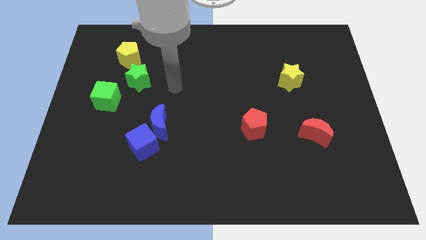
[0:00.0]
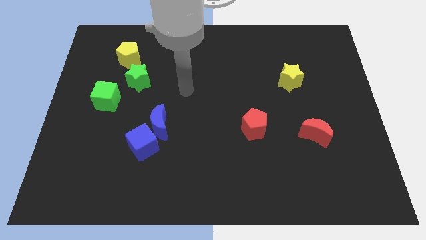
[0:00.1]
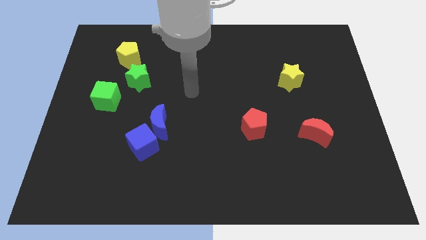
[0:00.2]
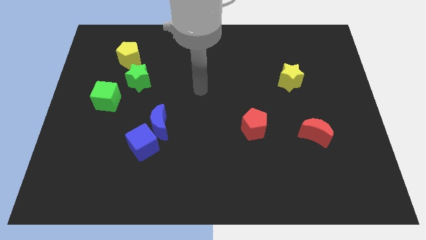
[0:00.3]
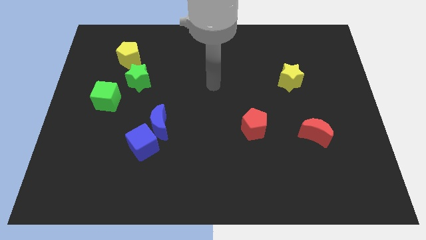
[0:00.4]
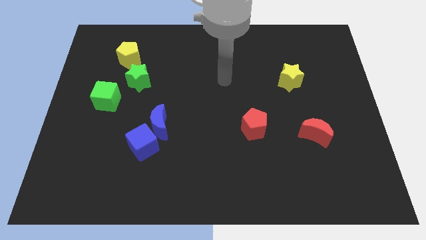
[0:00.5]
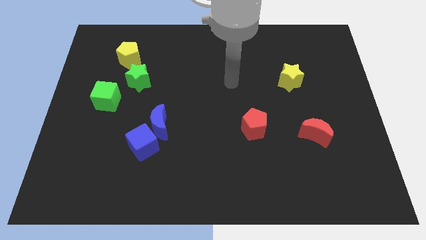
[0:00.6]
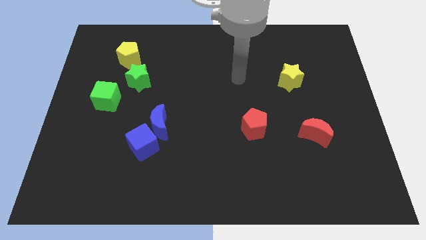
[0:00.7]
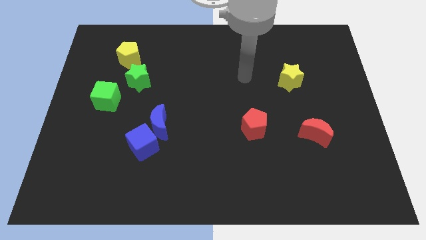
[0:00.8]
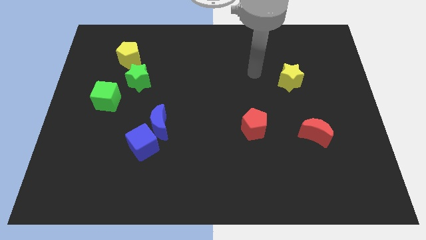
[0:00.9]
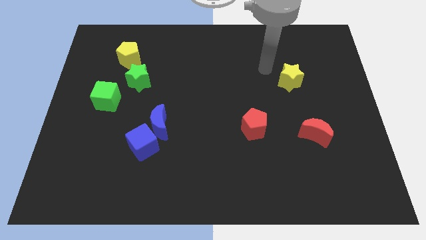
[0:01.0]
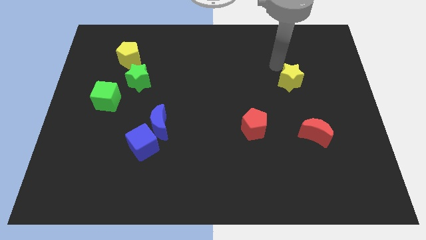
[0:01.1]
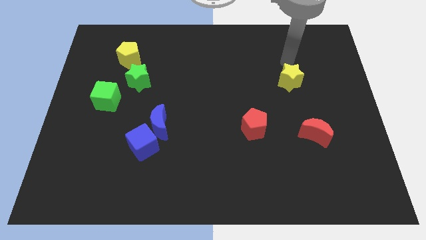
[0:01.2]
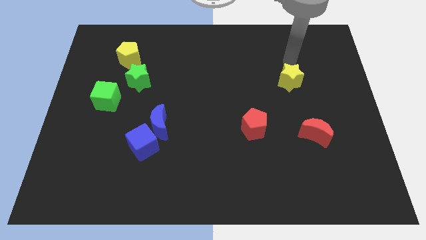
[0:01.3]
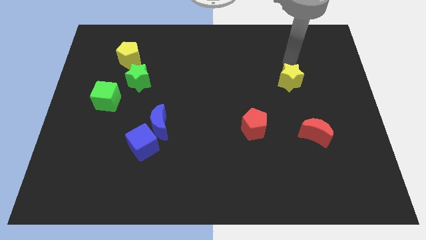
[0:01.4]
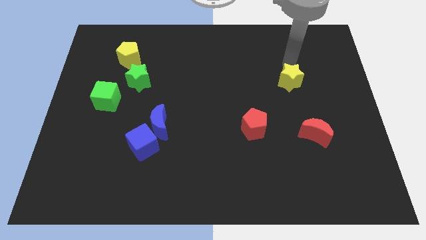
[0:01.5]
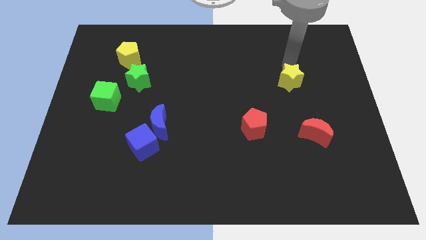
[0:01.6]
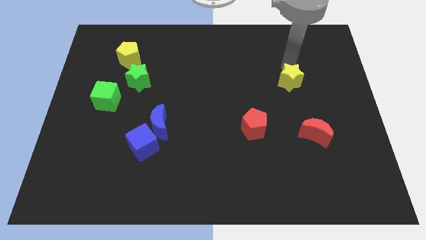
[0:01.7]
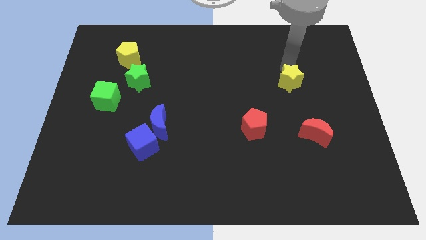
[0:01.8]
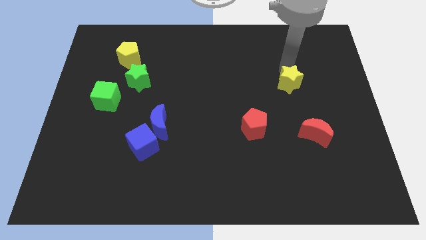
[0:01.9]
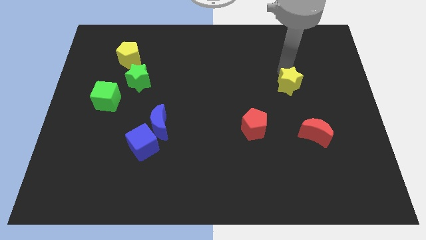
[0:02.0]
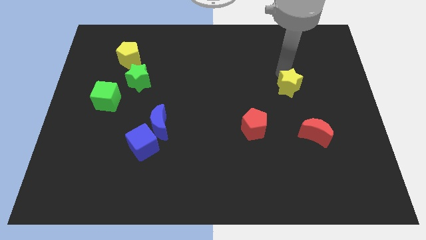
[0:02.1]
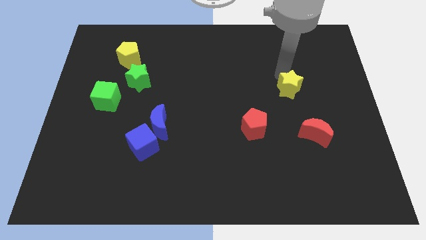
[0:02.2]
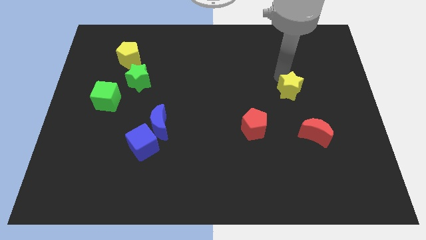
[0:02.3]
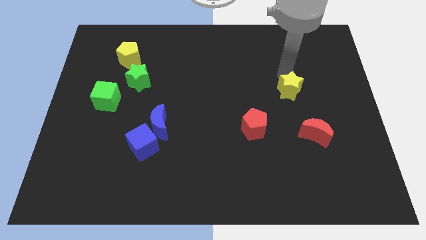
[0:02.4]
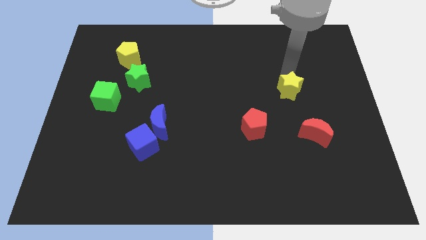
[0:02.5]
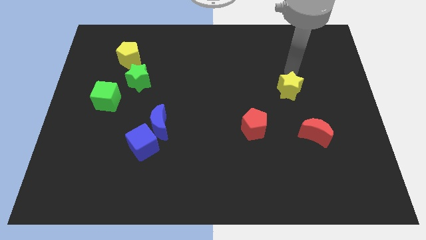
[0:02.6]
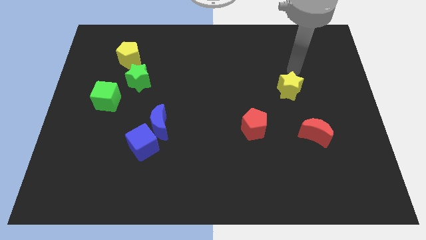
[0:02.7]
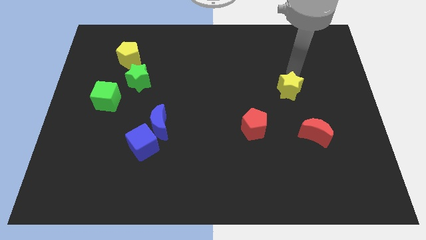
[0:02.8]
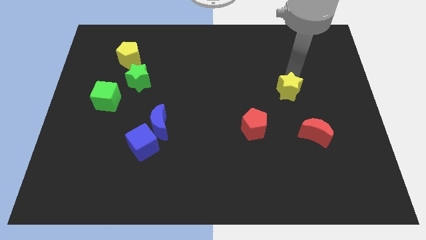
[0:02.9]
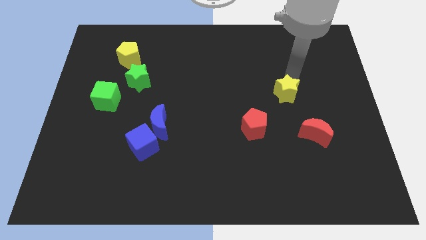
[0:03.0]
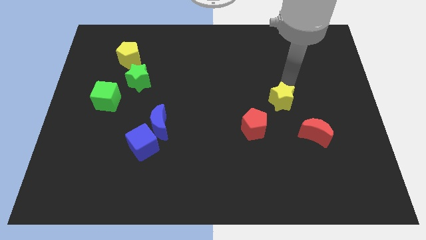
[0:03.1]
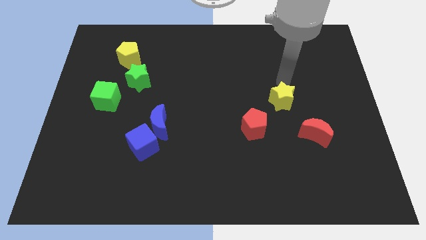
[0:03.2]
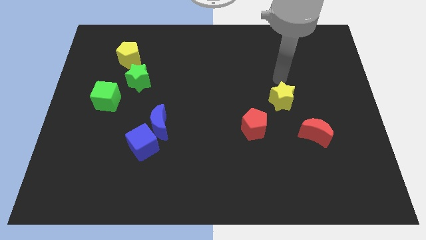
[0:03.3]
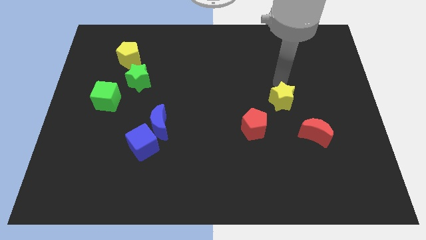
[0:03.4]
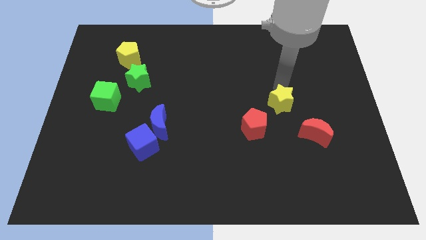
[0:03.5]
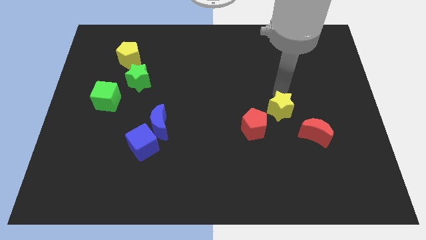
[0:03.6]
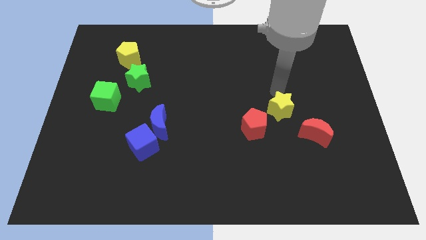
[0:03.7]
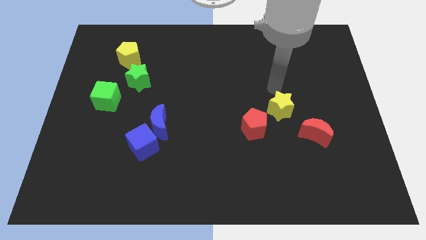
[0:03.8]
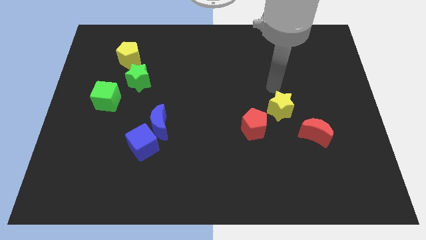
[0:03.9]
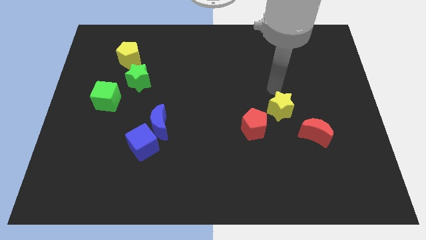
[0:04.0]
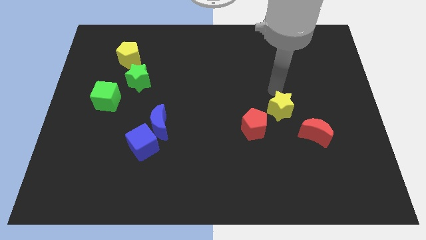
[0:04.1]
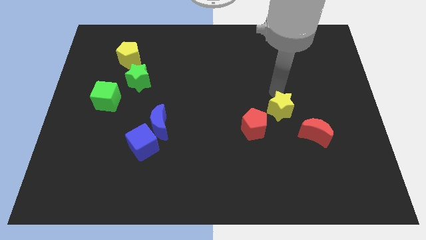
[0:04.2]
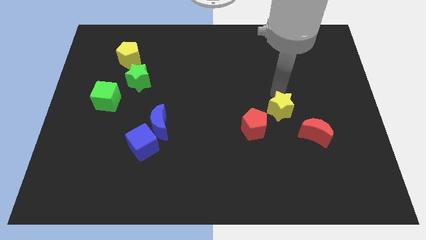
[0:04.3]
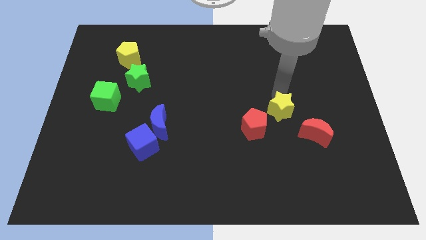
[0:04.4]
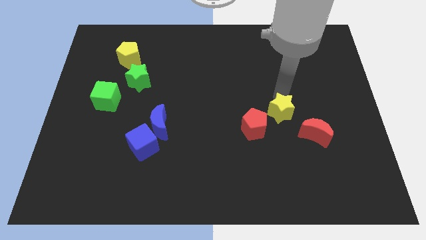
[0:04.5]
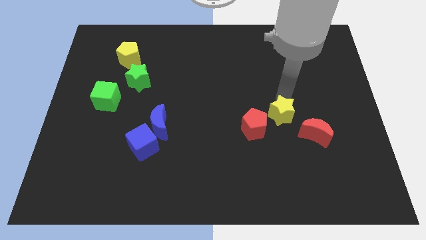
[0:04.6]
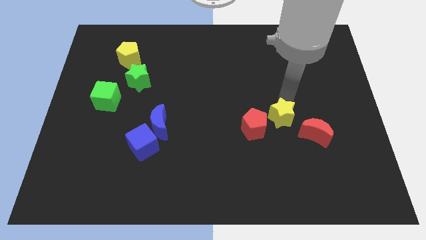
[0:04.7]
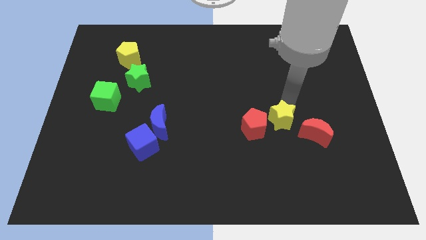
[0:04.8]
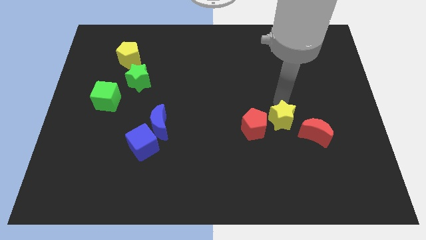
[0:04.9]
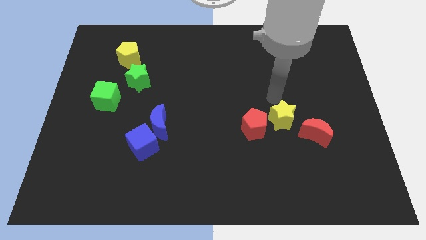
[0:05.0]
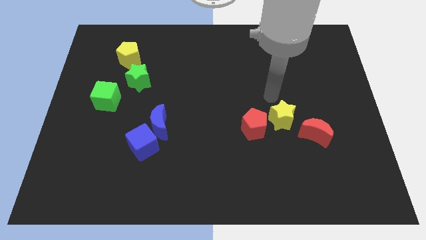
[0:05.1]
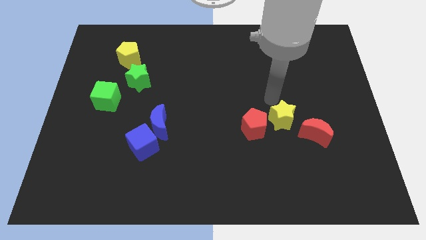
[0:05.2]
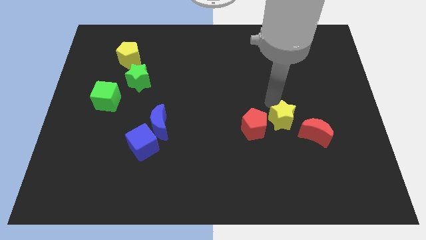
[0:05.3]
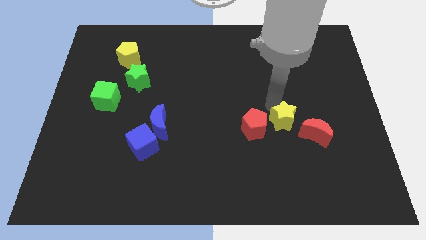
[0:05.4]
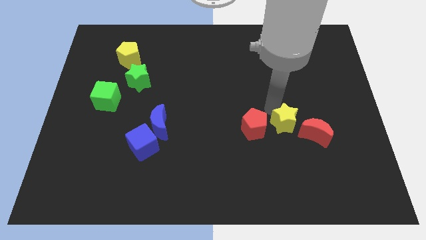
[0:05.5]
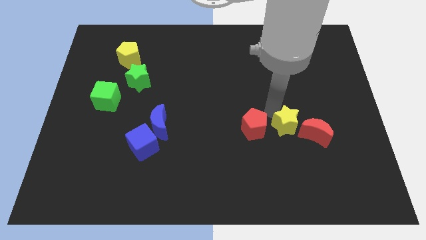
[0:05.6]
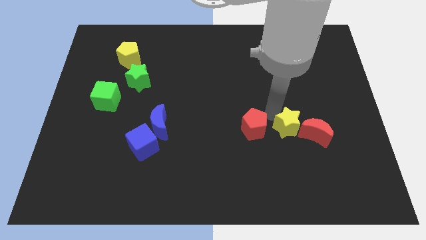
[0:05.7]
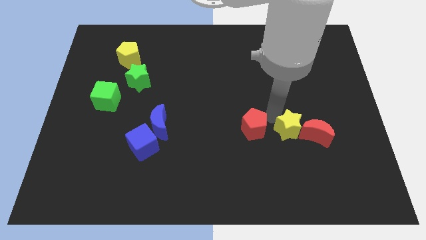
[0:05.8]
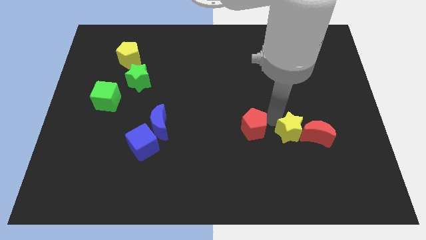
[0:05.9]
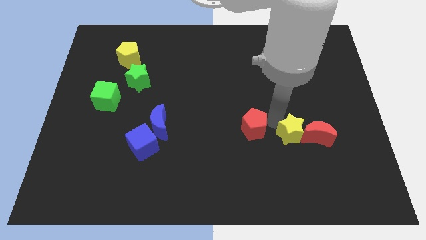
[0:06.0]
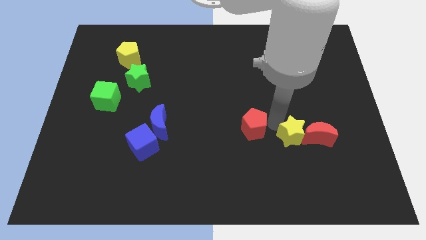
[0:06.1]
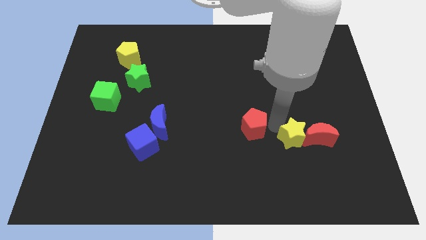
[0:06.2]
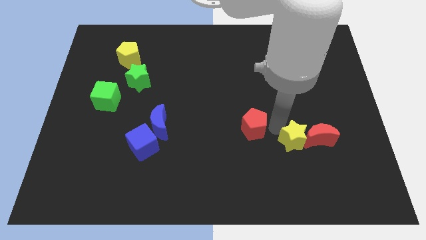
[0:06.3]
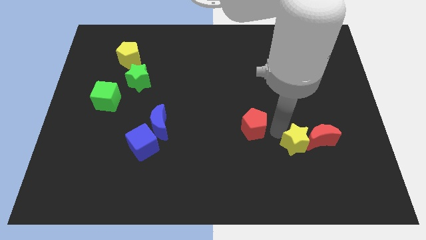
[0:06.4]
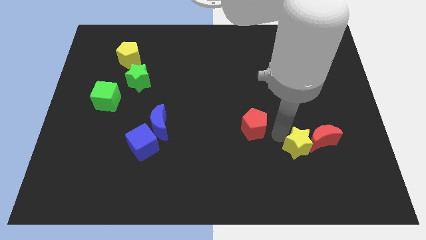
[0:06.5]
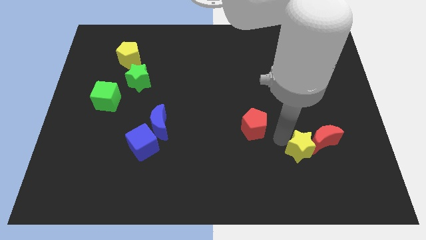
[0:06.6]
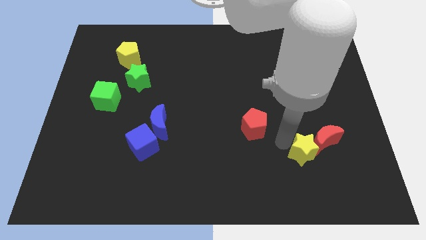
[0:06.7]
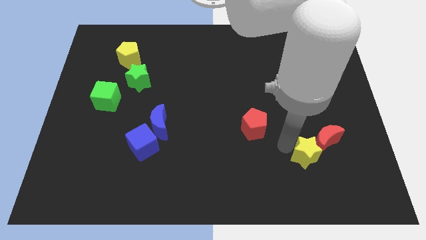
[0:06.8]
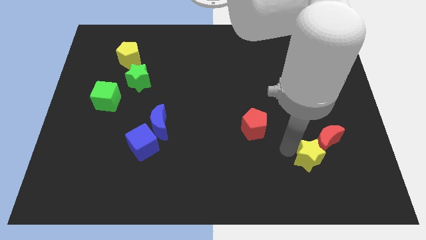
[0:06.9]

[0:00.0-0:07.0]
move the yellow star below the red moon

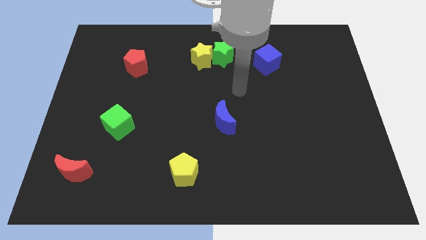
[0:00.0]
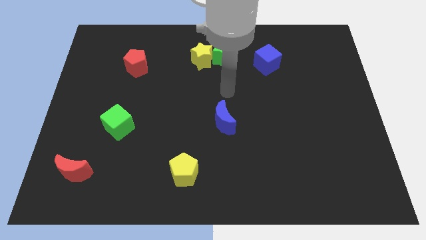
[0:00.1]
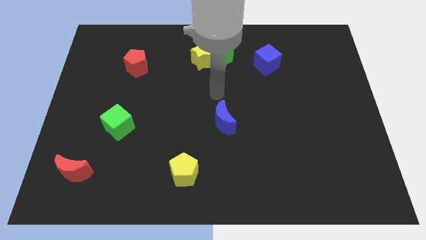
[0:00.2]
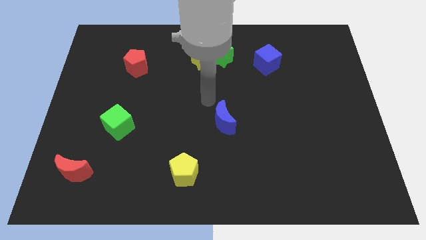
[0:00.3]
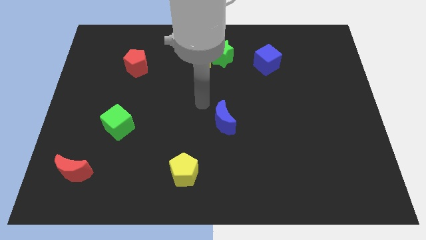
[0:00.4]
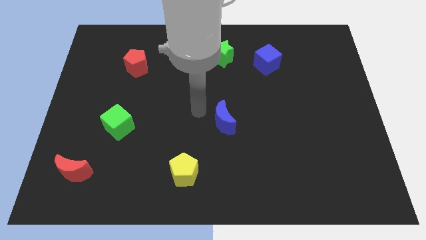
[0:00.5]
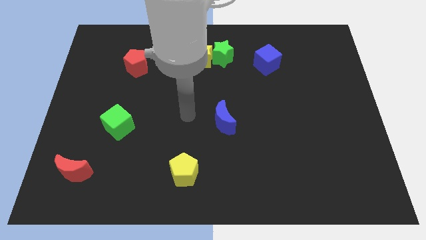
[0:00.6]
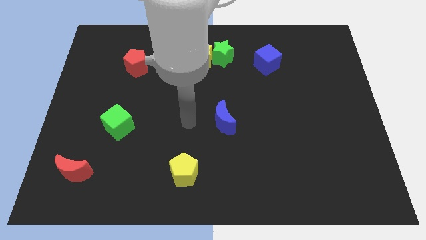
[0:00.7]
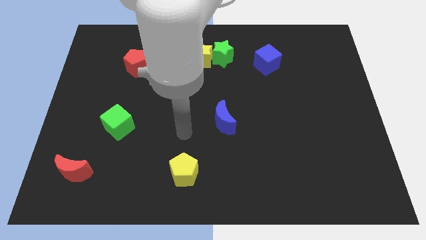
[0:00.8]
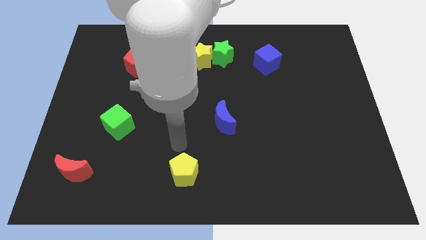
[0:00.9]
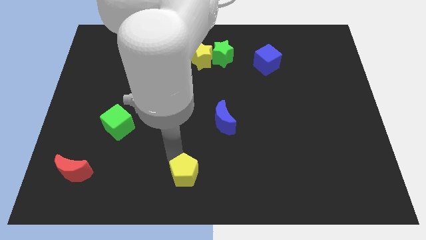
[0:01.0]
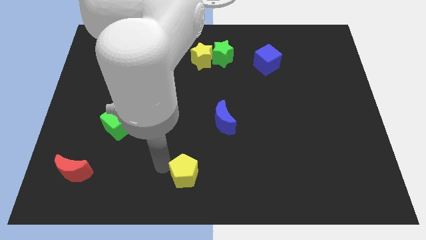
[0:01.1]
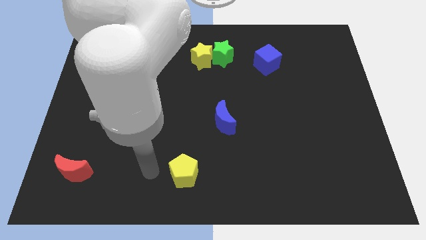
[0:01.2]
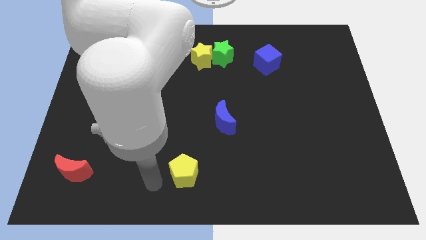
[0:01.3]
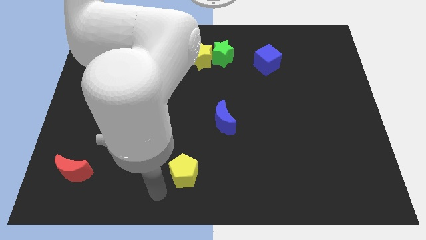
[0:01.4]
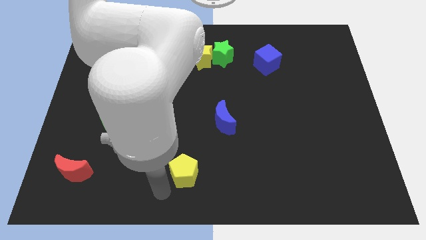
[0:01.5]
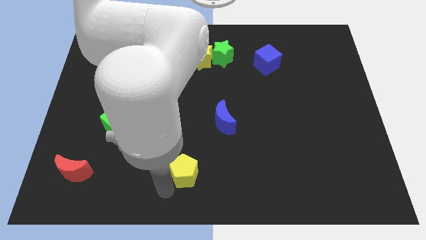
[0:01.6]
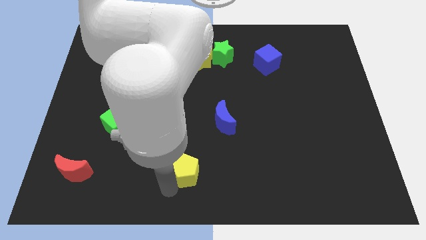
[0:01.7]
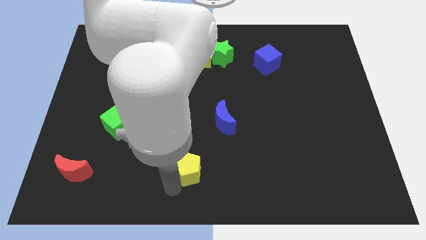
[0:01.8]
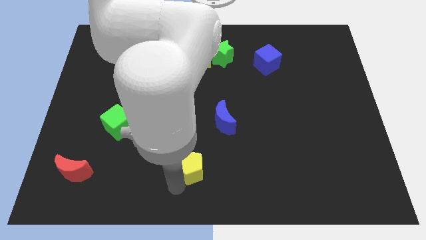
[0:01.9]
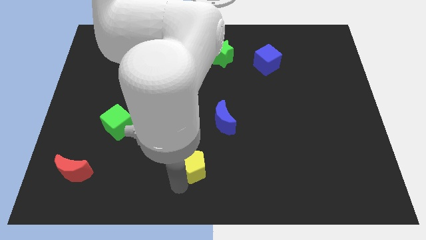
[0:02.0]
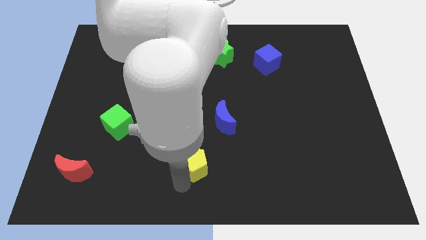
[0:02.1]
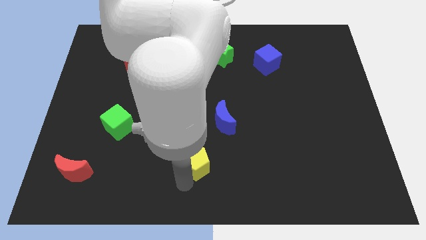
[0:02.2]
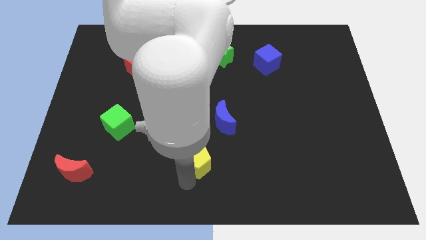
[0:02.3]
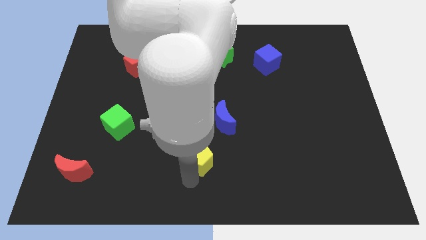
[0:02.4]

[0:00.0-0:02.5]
push the yellow pentagon to the bottom of the blue moon
